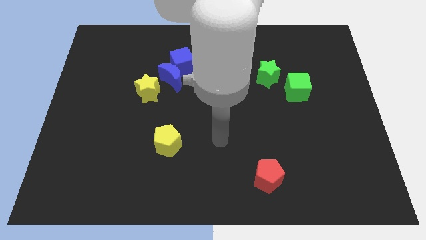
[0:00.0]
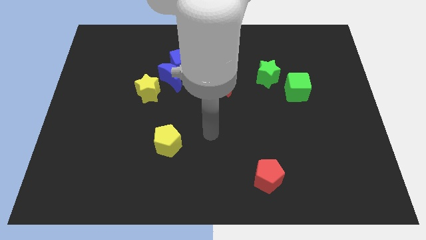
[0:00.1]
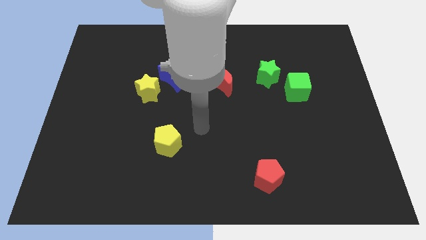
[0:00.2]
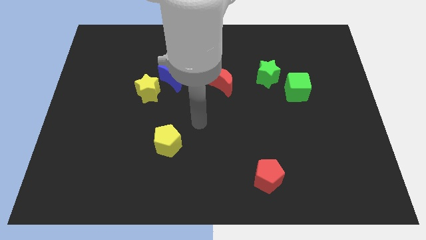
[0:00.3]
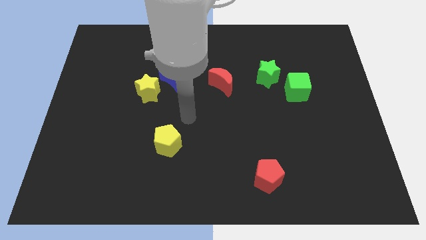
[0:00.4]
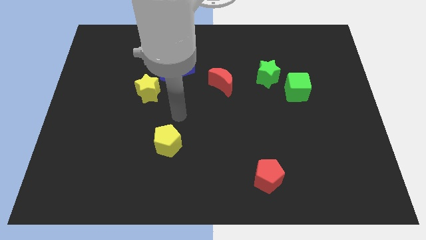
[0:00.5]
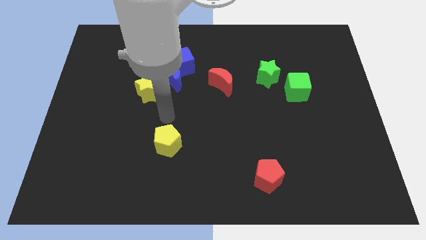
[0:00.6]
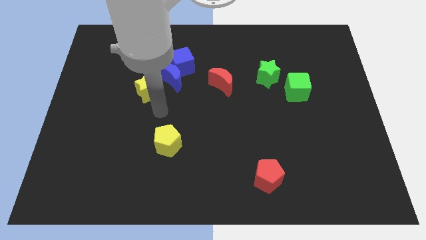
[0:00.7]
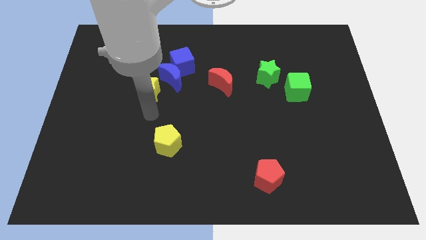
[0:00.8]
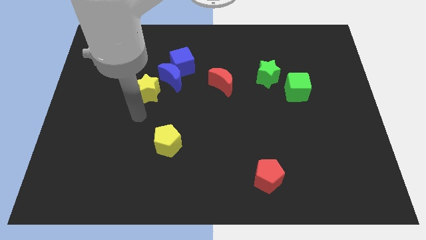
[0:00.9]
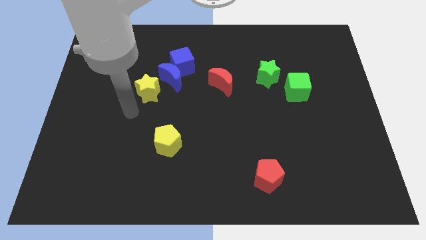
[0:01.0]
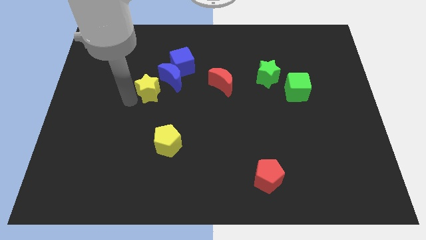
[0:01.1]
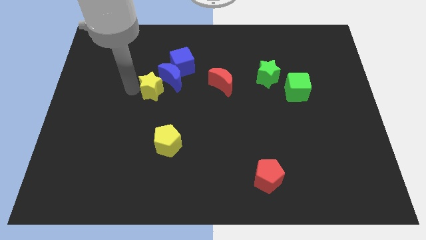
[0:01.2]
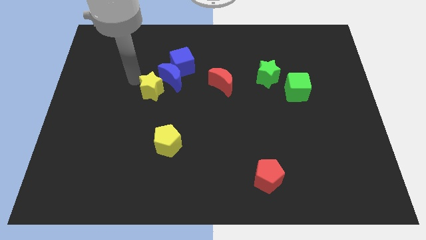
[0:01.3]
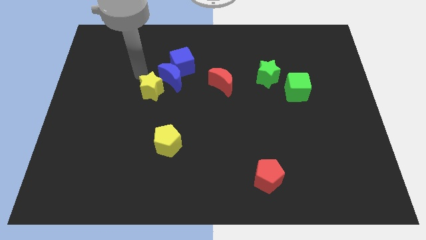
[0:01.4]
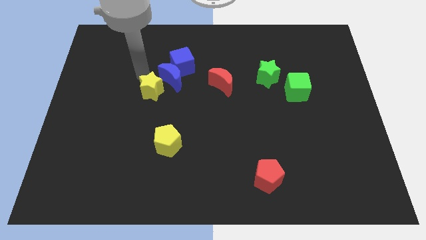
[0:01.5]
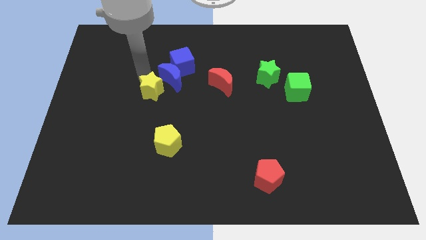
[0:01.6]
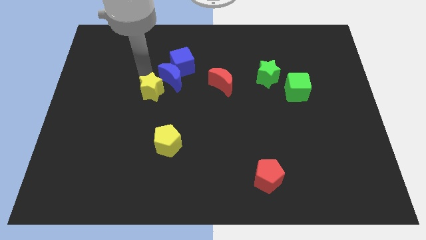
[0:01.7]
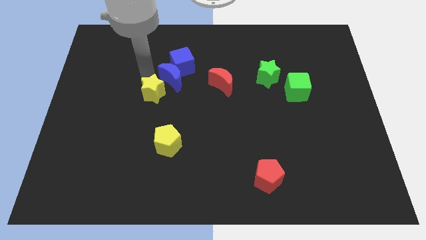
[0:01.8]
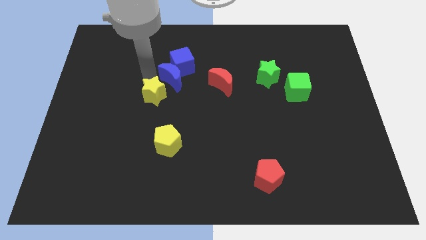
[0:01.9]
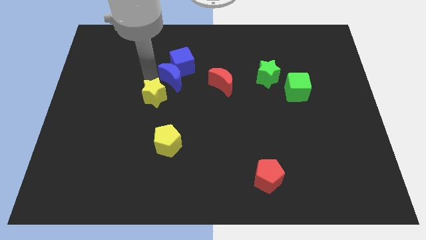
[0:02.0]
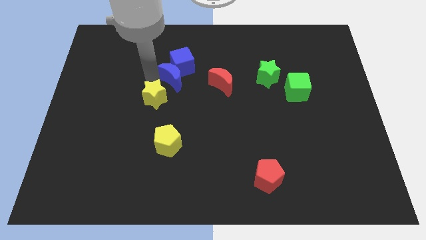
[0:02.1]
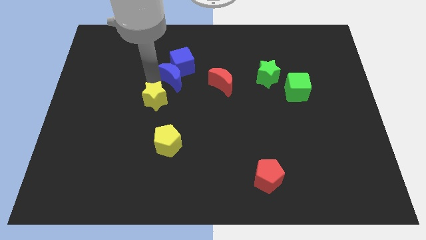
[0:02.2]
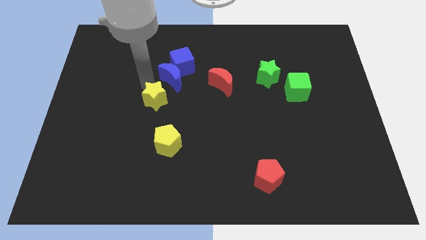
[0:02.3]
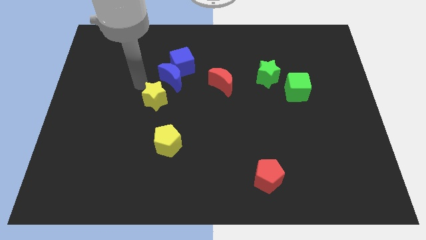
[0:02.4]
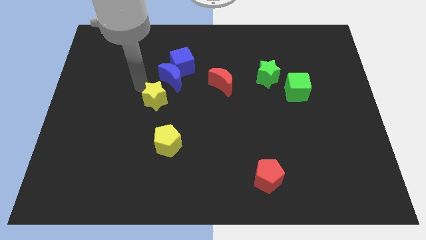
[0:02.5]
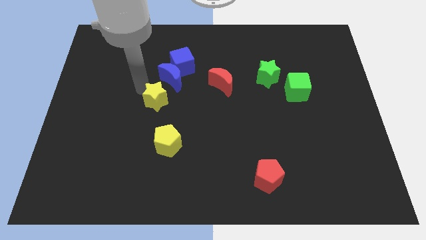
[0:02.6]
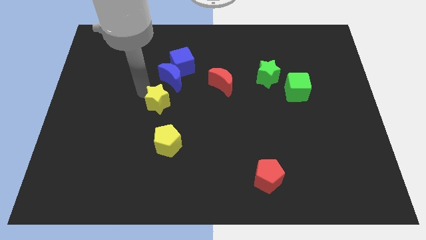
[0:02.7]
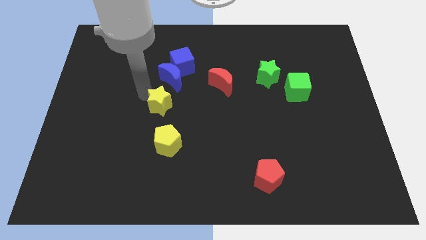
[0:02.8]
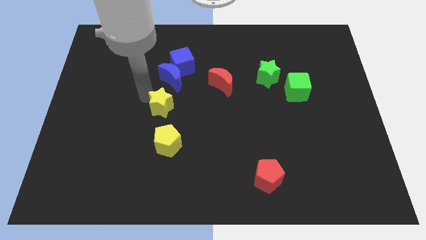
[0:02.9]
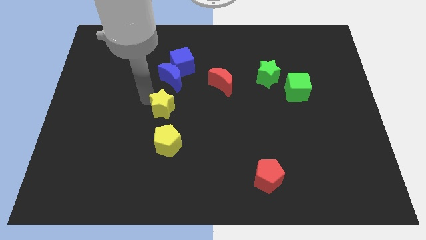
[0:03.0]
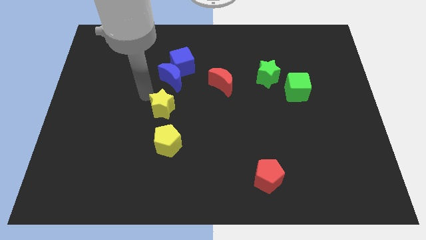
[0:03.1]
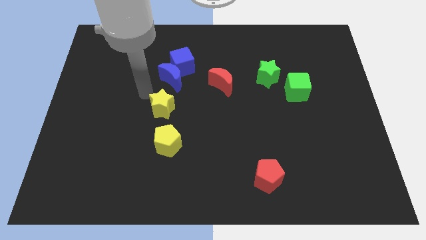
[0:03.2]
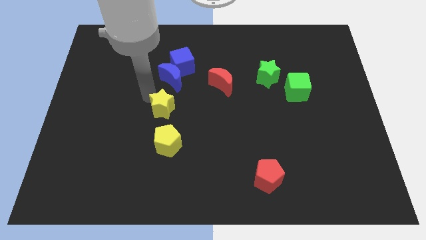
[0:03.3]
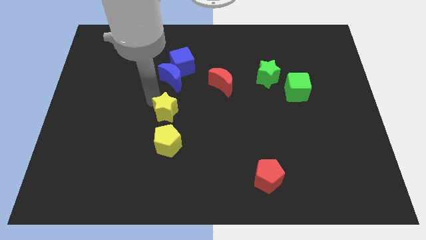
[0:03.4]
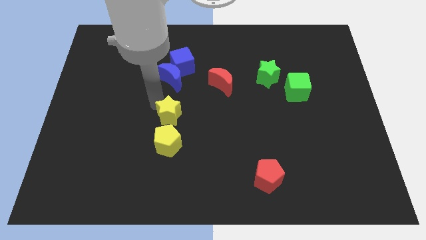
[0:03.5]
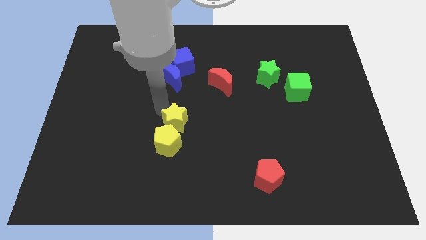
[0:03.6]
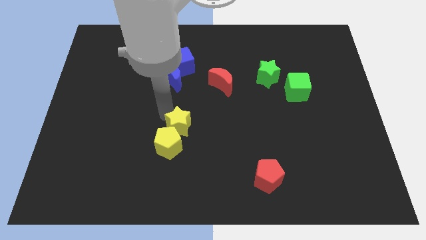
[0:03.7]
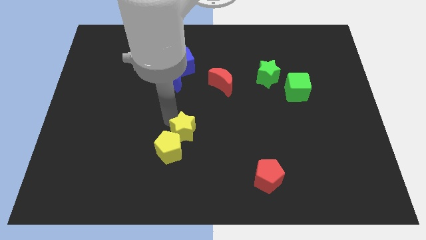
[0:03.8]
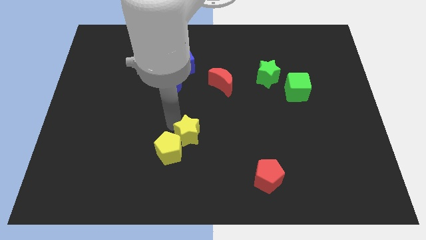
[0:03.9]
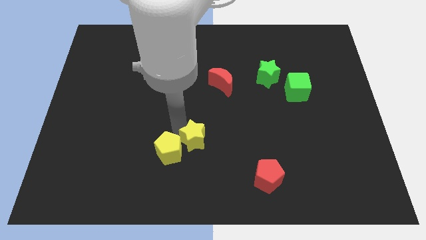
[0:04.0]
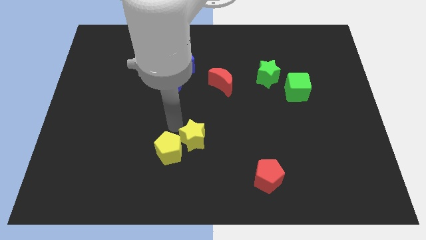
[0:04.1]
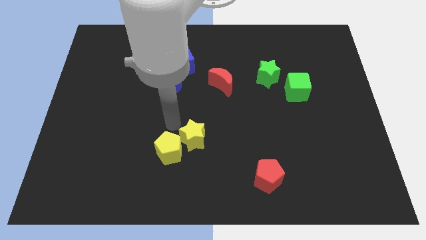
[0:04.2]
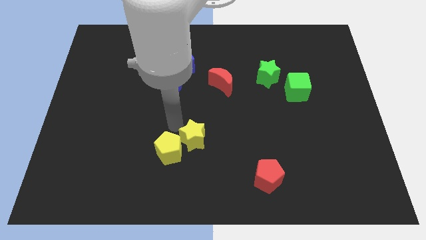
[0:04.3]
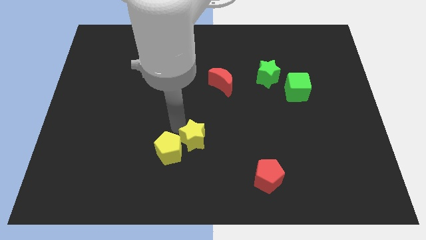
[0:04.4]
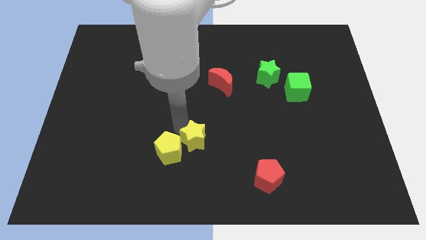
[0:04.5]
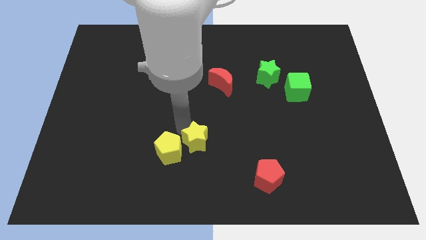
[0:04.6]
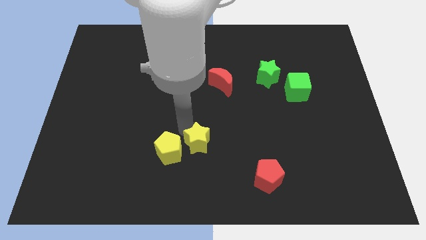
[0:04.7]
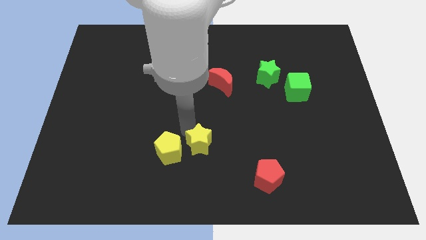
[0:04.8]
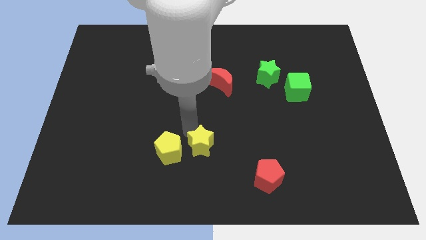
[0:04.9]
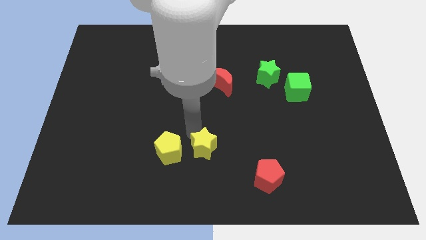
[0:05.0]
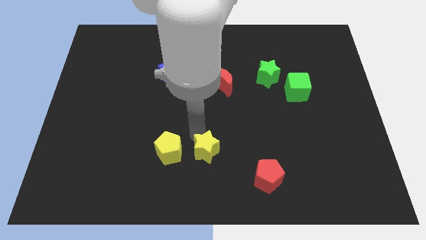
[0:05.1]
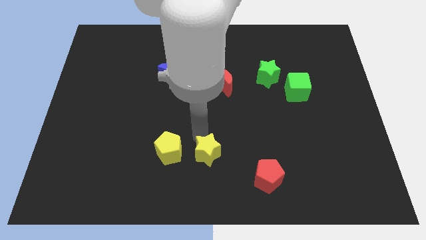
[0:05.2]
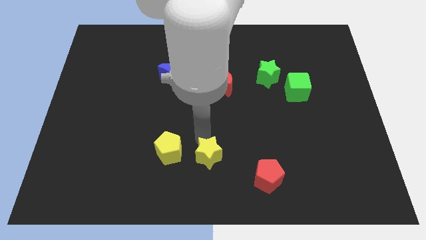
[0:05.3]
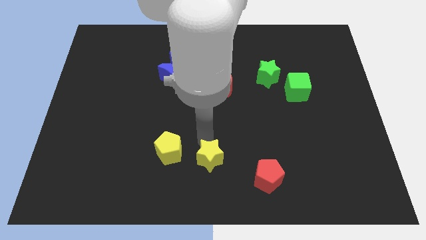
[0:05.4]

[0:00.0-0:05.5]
put the yellow star just left of the red pentagon

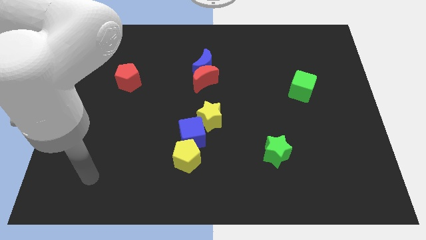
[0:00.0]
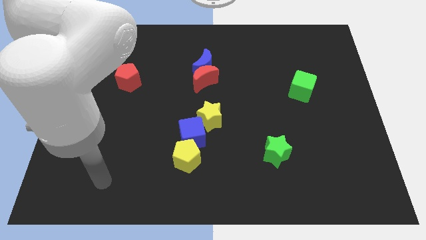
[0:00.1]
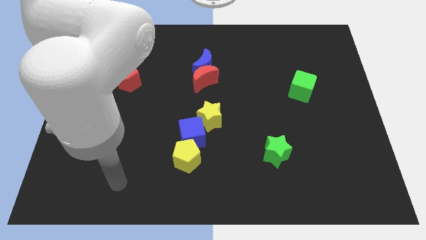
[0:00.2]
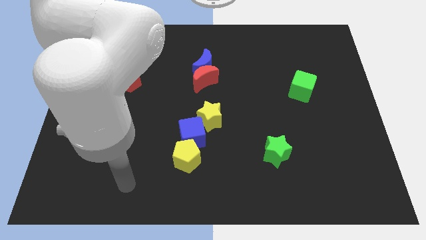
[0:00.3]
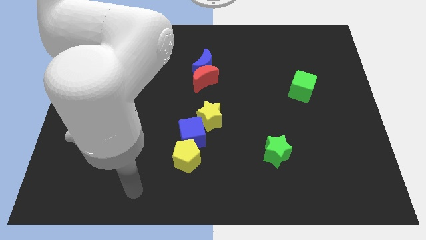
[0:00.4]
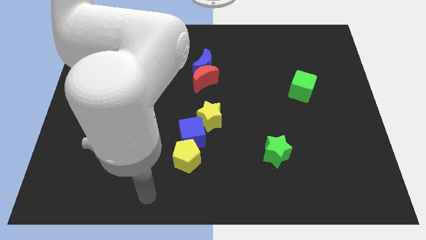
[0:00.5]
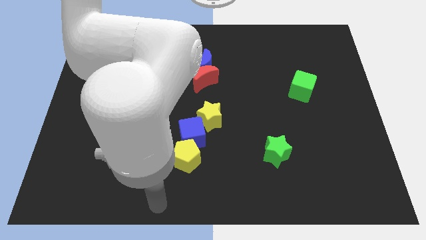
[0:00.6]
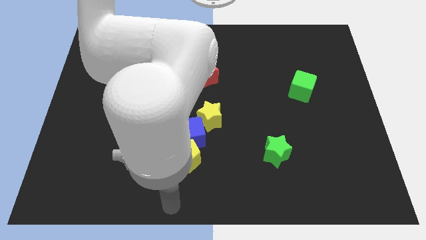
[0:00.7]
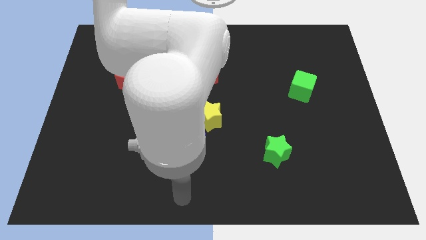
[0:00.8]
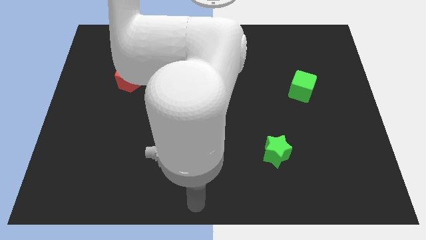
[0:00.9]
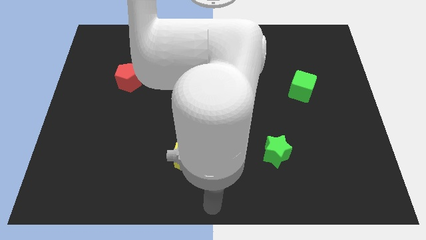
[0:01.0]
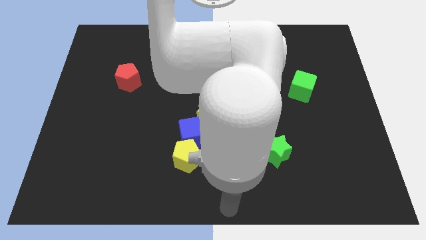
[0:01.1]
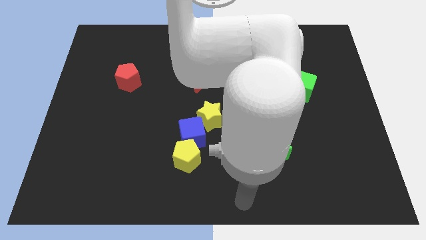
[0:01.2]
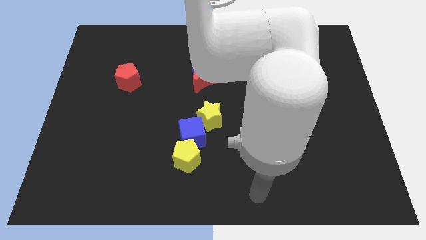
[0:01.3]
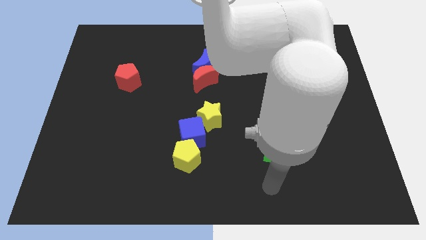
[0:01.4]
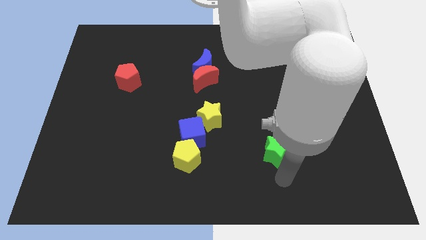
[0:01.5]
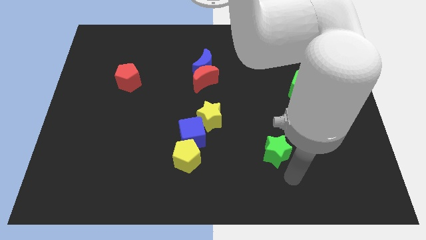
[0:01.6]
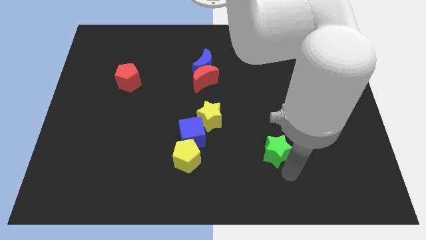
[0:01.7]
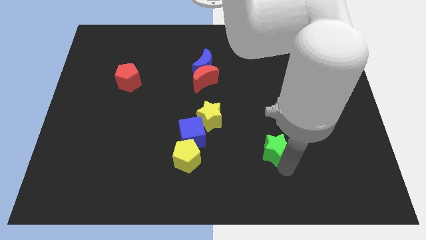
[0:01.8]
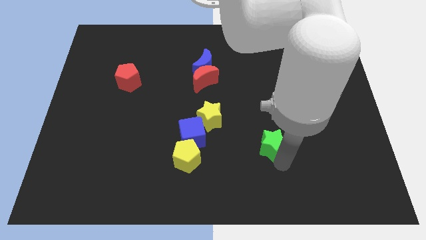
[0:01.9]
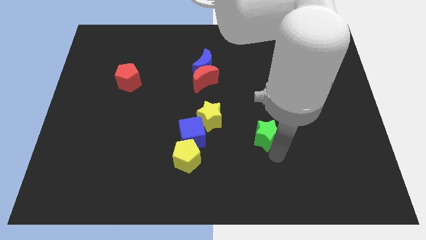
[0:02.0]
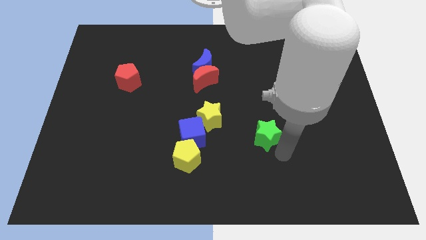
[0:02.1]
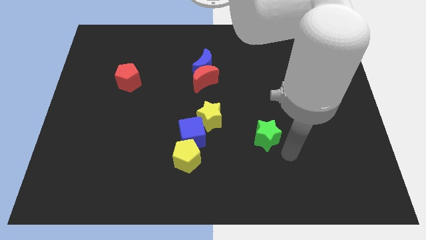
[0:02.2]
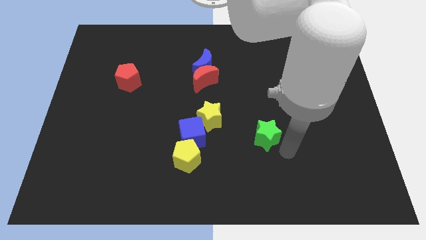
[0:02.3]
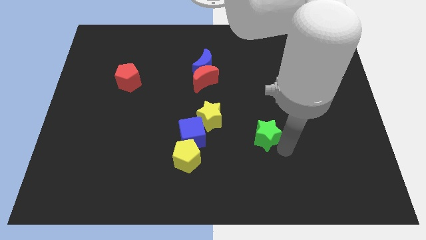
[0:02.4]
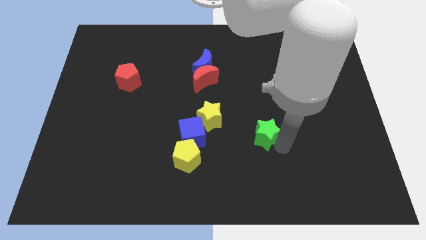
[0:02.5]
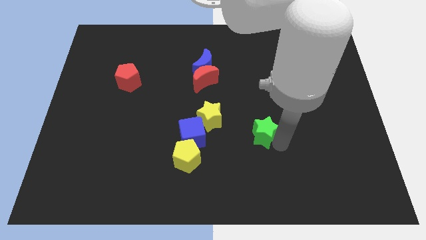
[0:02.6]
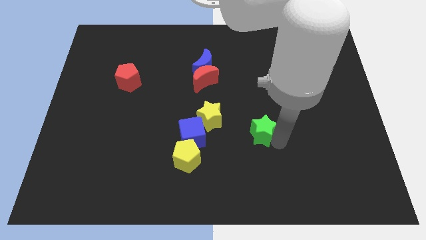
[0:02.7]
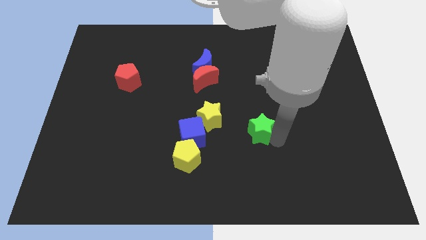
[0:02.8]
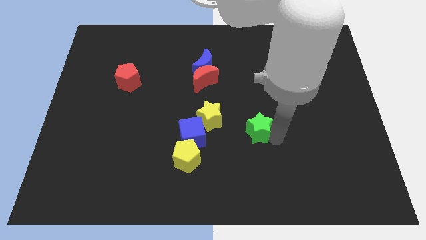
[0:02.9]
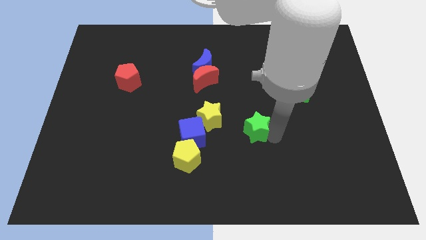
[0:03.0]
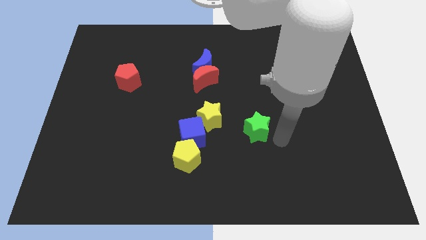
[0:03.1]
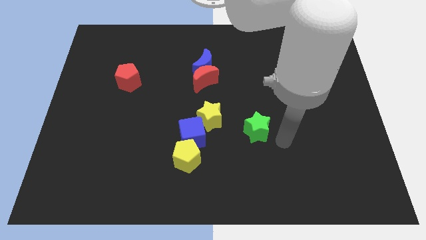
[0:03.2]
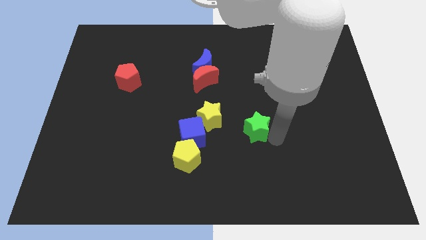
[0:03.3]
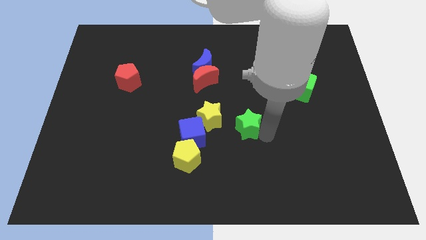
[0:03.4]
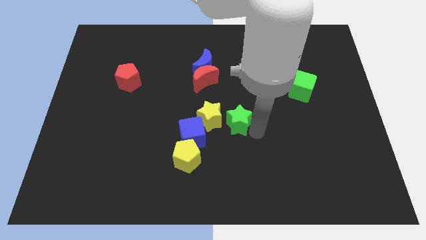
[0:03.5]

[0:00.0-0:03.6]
put the green star to the top right side of the blue cube
